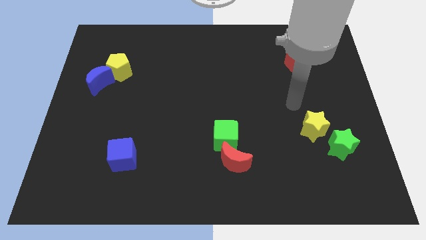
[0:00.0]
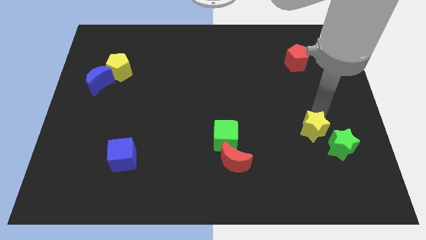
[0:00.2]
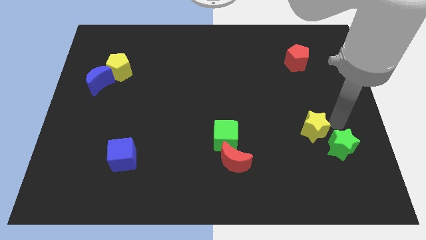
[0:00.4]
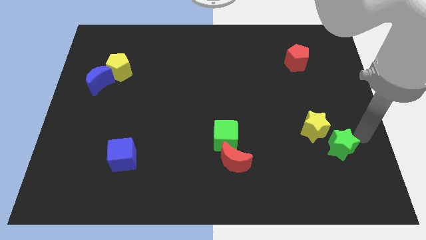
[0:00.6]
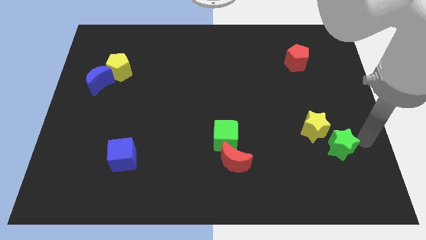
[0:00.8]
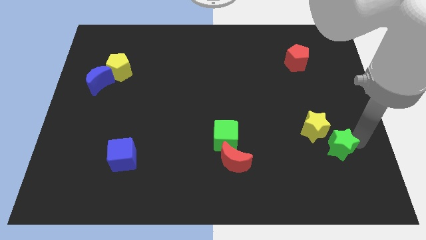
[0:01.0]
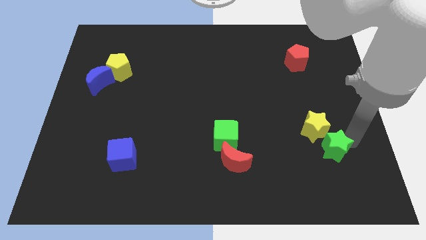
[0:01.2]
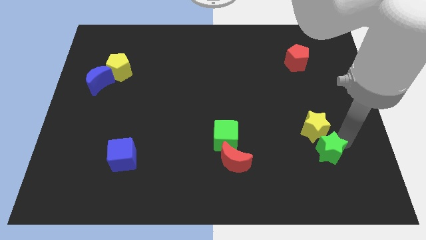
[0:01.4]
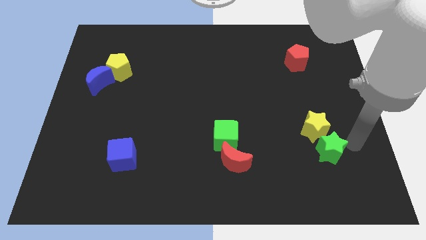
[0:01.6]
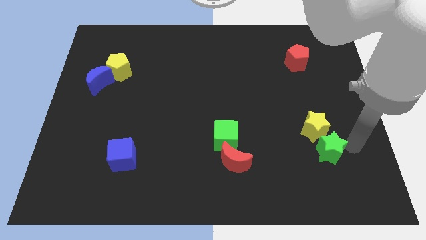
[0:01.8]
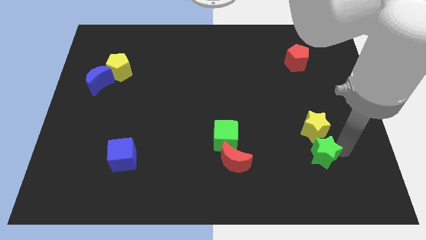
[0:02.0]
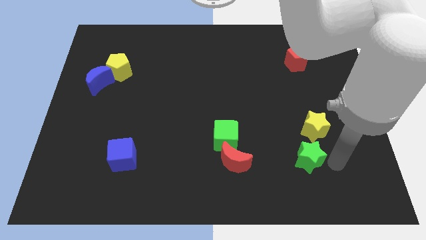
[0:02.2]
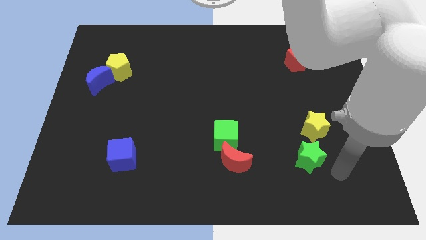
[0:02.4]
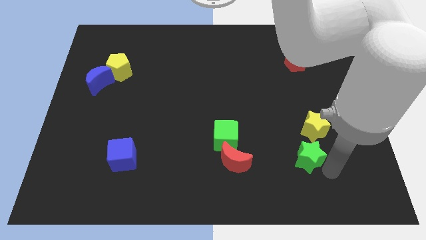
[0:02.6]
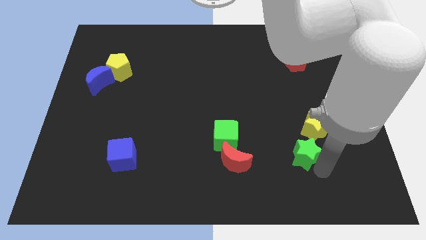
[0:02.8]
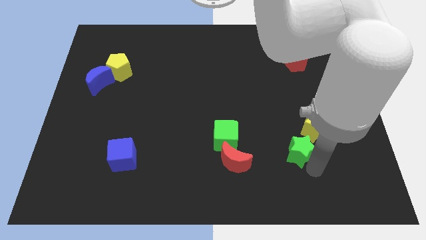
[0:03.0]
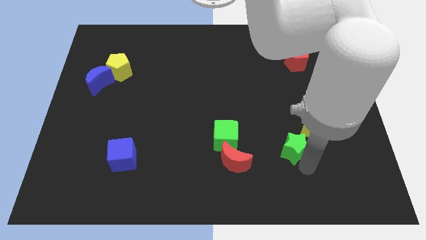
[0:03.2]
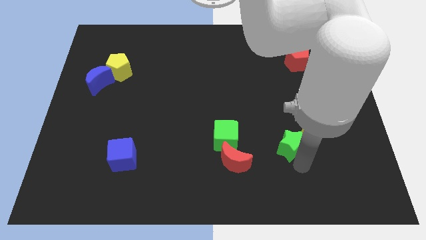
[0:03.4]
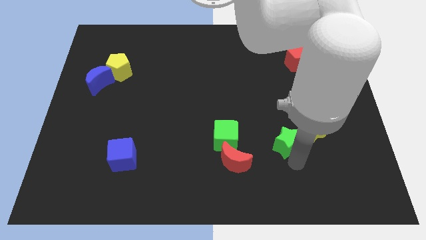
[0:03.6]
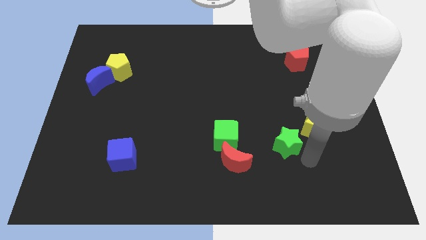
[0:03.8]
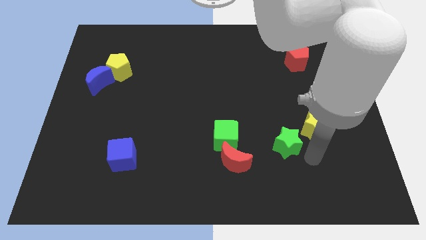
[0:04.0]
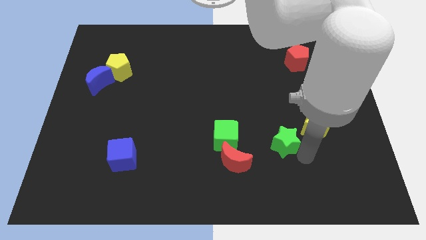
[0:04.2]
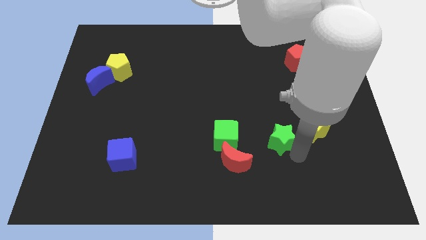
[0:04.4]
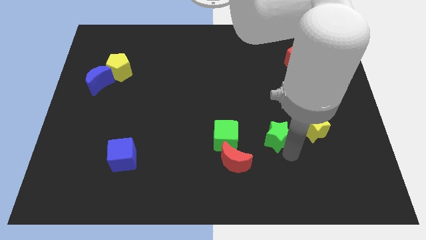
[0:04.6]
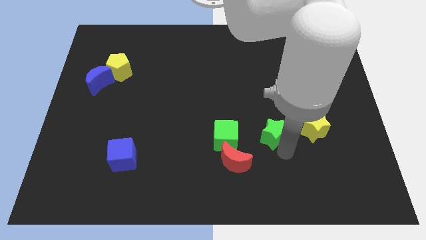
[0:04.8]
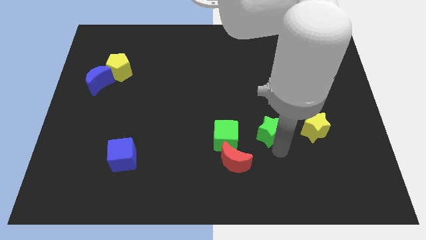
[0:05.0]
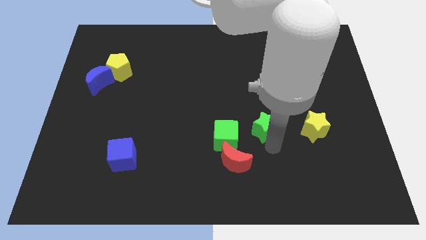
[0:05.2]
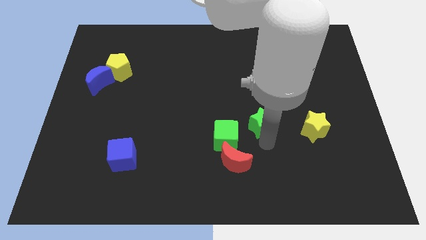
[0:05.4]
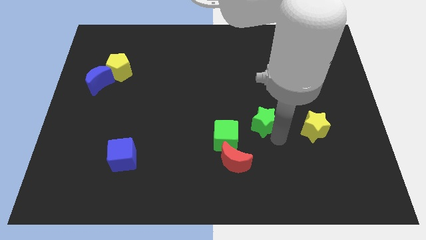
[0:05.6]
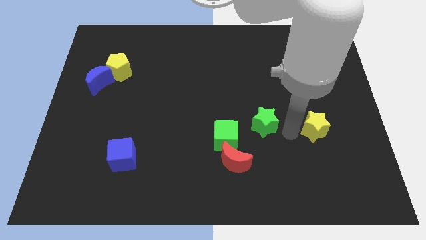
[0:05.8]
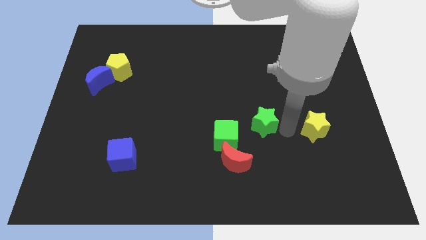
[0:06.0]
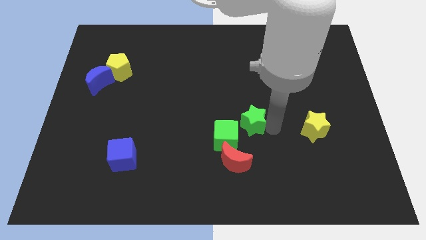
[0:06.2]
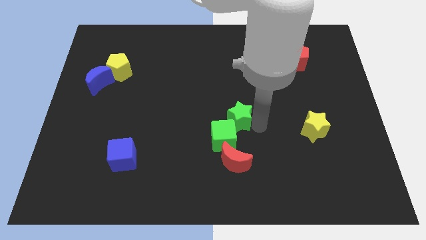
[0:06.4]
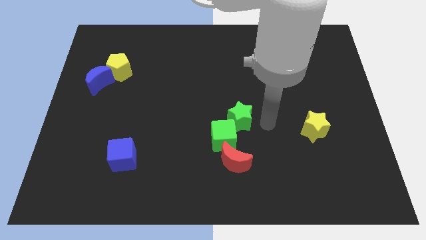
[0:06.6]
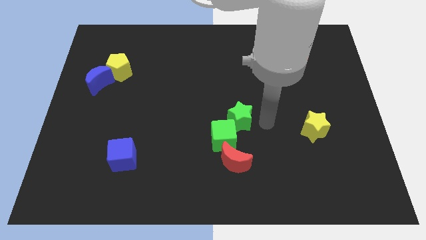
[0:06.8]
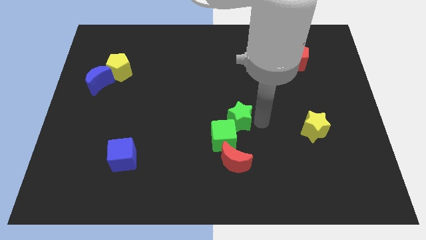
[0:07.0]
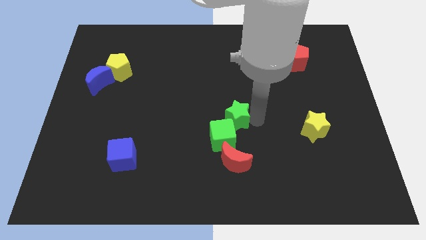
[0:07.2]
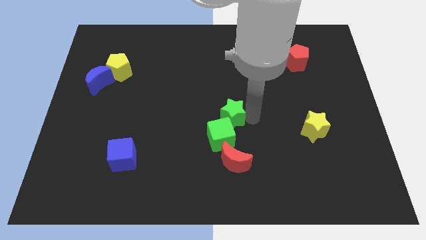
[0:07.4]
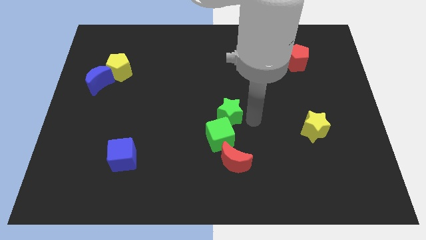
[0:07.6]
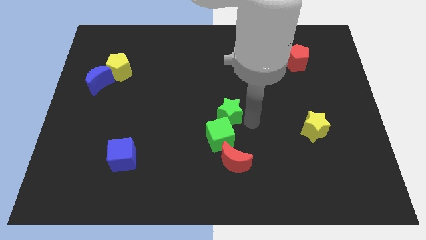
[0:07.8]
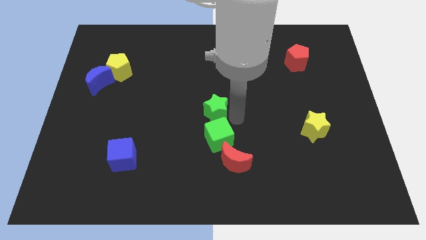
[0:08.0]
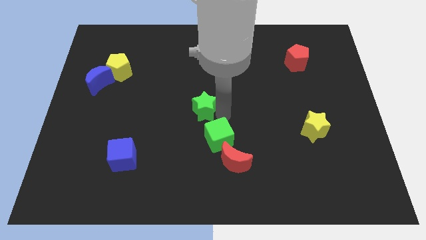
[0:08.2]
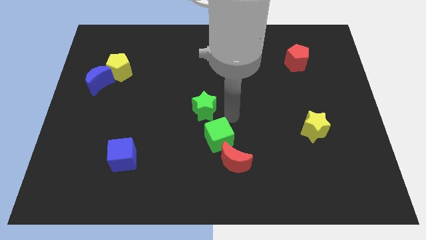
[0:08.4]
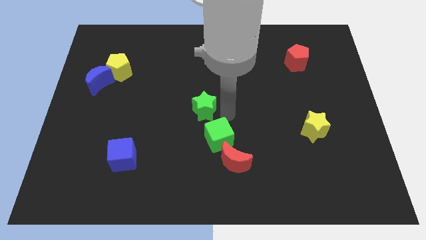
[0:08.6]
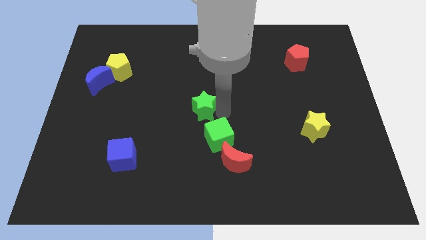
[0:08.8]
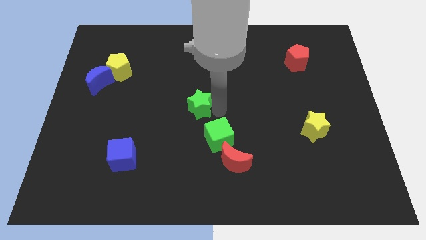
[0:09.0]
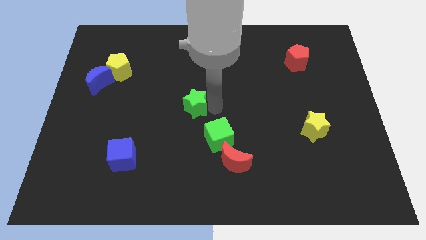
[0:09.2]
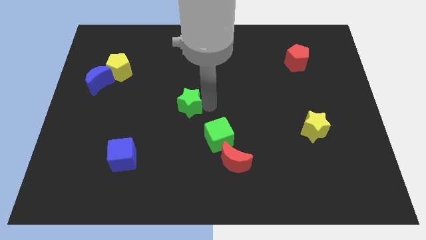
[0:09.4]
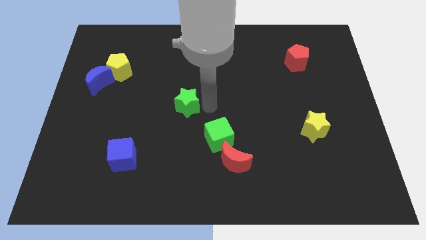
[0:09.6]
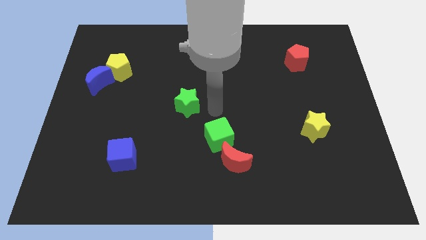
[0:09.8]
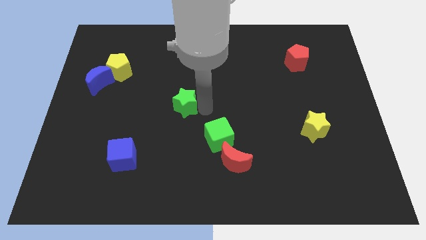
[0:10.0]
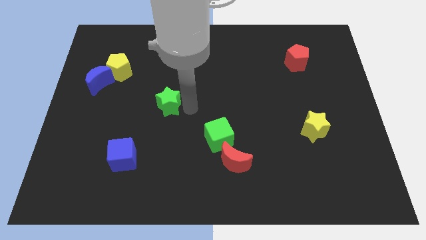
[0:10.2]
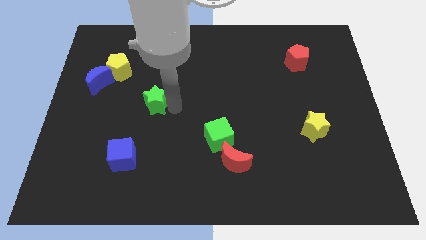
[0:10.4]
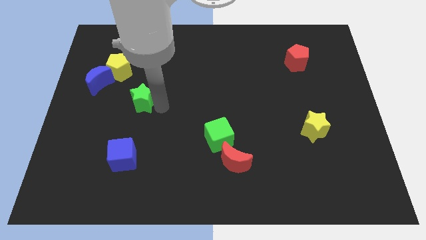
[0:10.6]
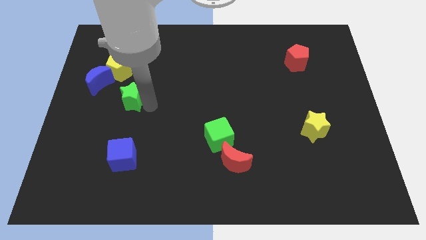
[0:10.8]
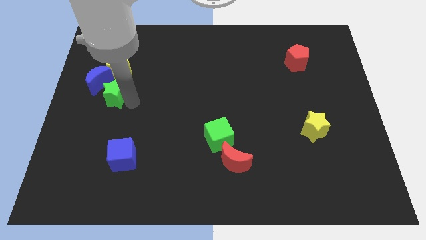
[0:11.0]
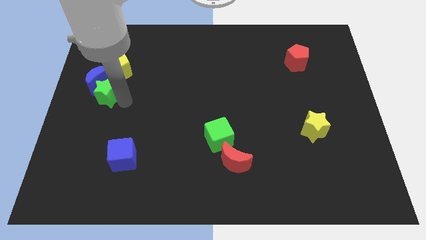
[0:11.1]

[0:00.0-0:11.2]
slide the green star towards the blue moon

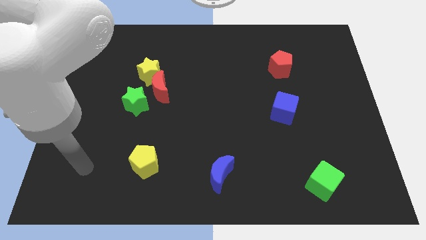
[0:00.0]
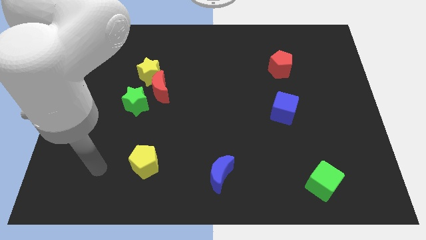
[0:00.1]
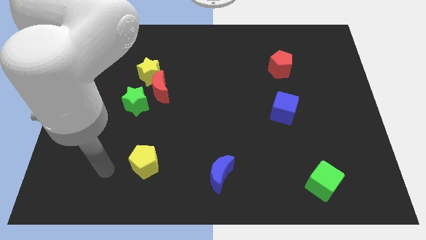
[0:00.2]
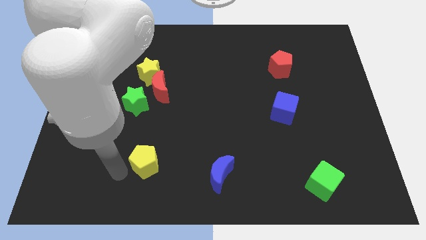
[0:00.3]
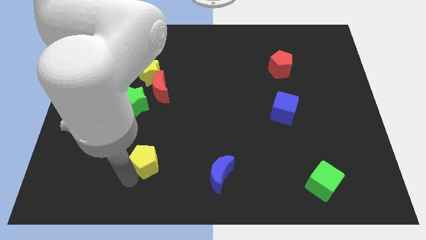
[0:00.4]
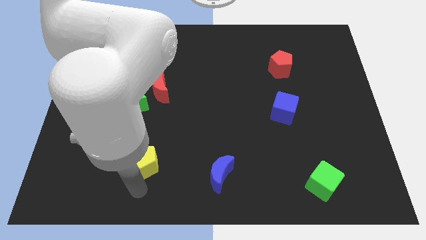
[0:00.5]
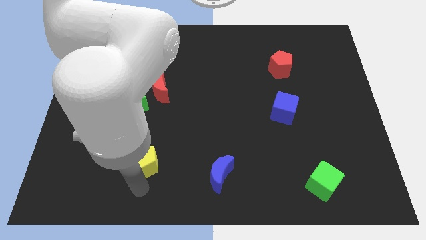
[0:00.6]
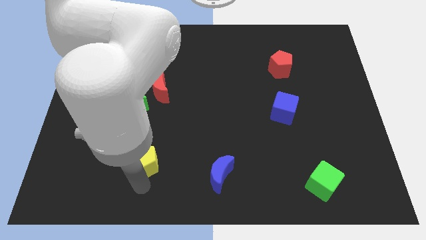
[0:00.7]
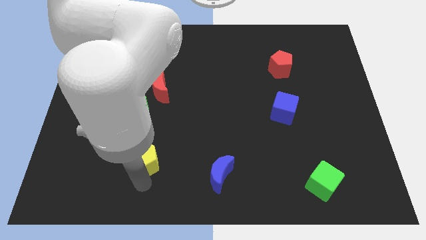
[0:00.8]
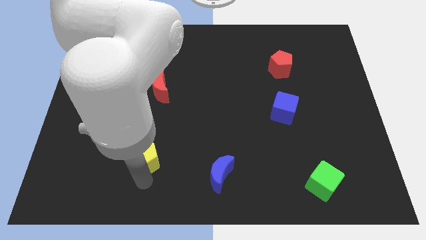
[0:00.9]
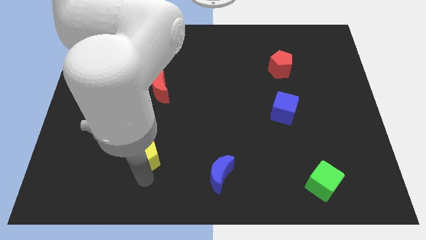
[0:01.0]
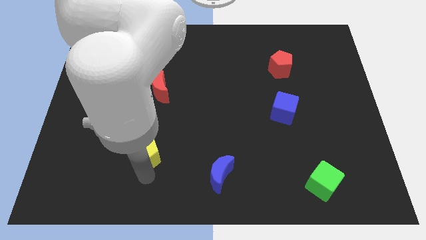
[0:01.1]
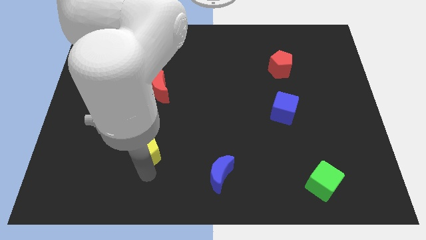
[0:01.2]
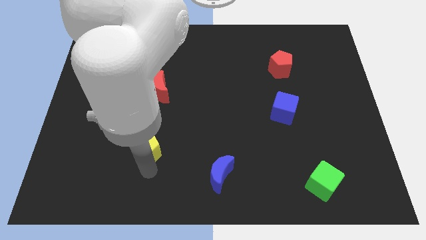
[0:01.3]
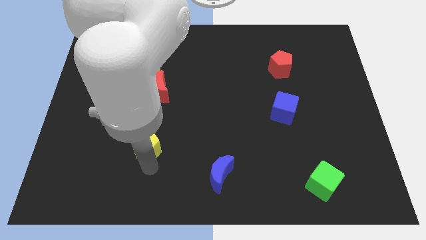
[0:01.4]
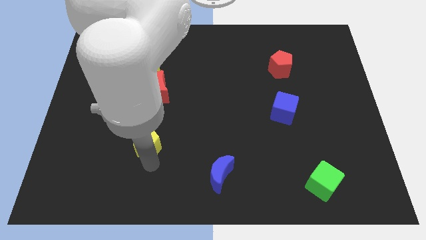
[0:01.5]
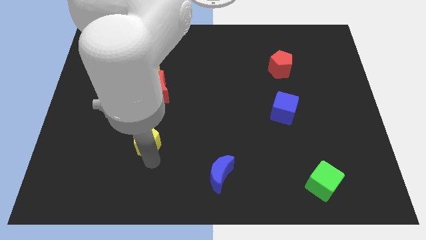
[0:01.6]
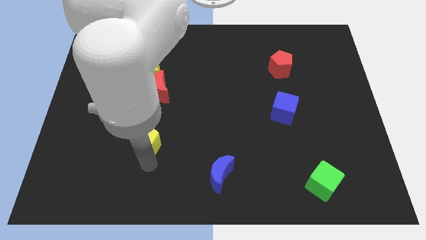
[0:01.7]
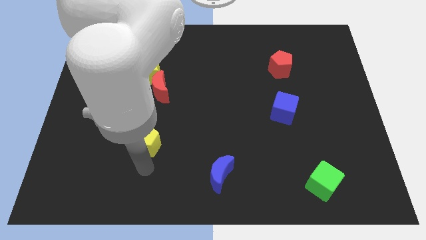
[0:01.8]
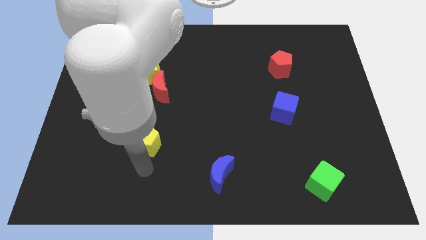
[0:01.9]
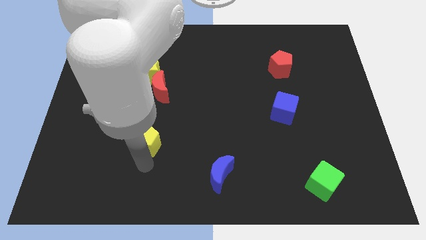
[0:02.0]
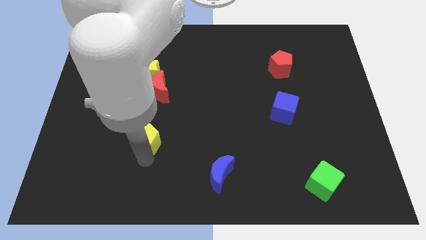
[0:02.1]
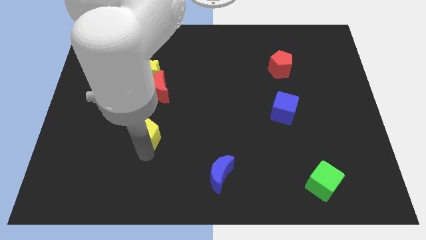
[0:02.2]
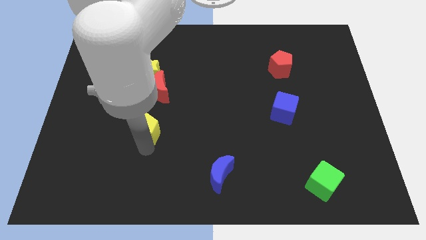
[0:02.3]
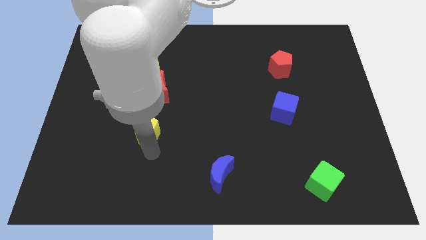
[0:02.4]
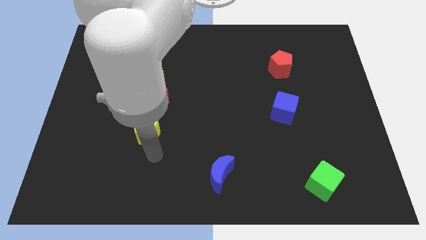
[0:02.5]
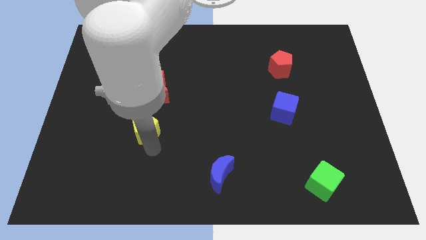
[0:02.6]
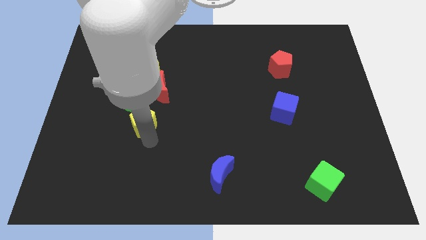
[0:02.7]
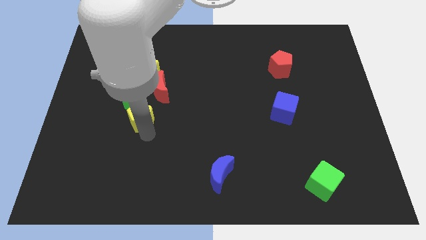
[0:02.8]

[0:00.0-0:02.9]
slide the yellow pentagon next to the green star
